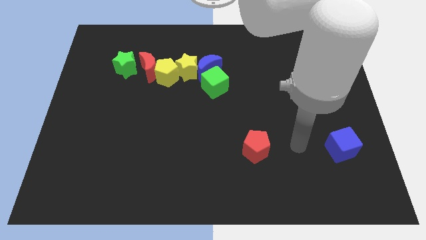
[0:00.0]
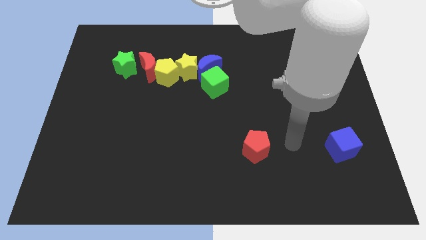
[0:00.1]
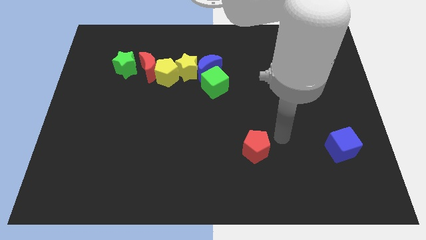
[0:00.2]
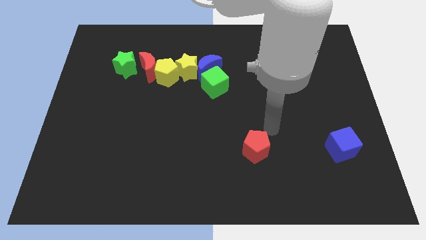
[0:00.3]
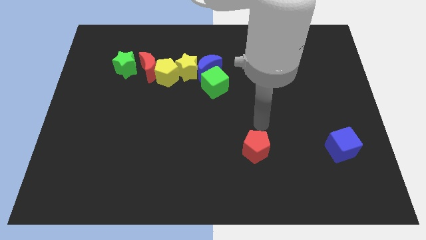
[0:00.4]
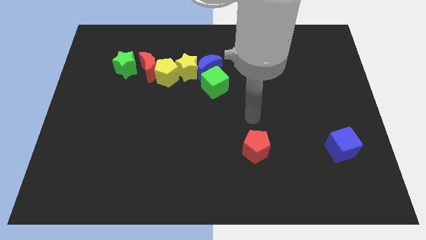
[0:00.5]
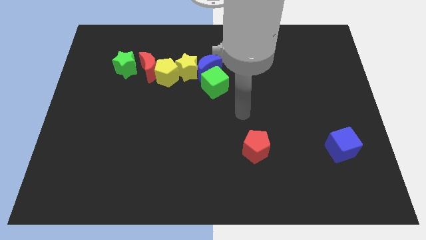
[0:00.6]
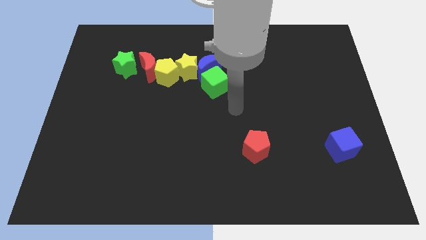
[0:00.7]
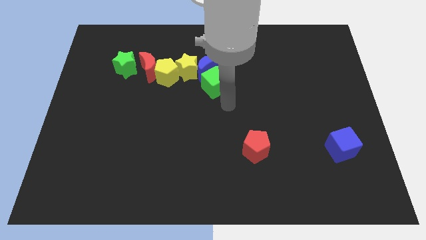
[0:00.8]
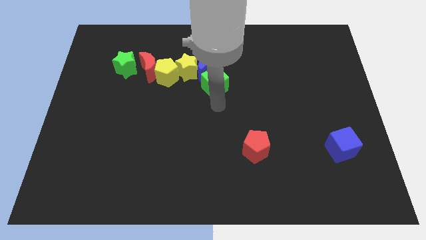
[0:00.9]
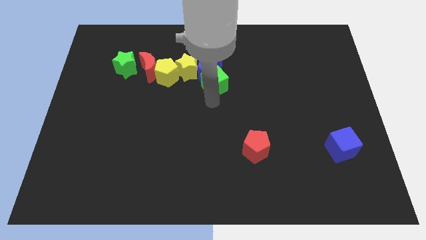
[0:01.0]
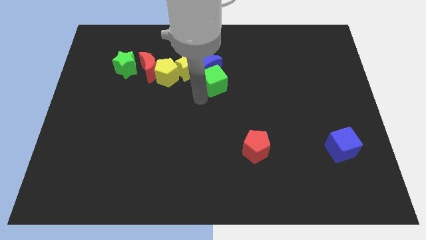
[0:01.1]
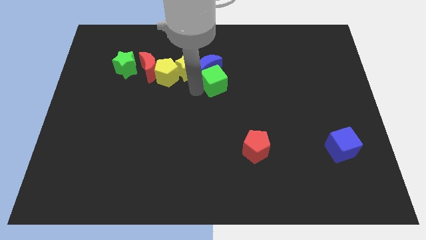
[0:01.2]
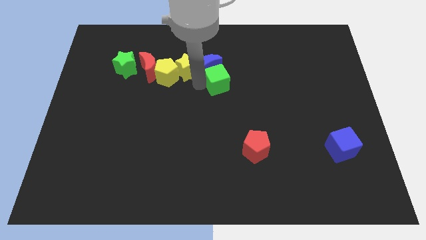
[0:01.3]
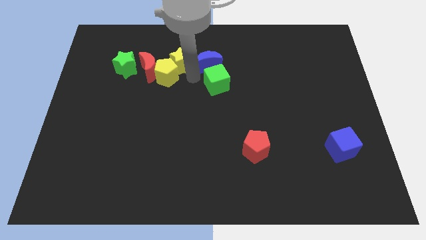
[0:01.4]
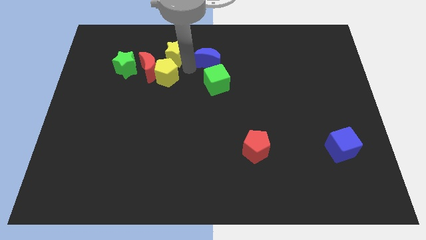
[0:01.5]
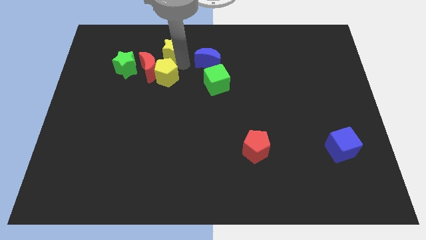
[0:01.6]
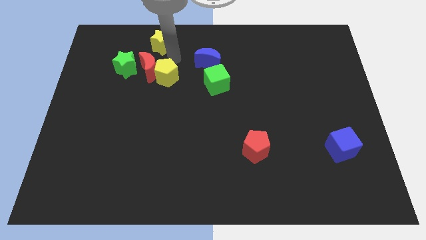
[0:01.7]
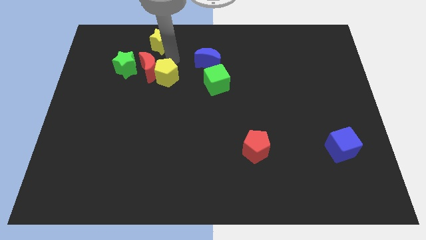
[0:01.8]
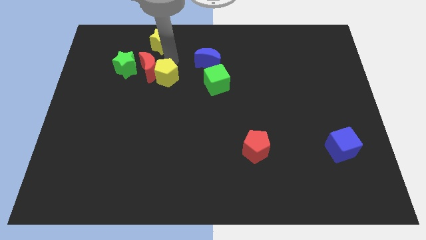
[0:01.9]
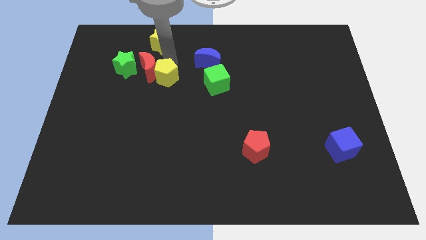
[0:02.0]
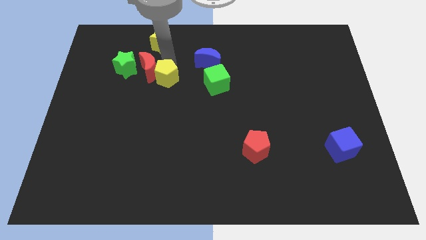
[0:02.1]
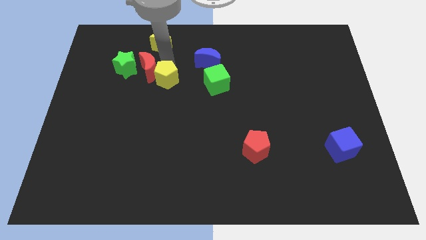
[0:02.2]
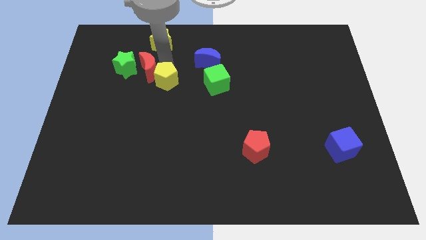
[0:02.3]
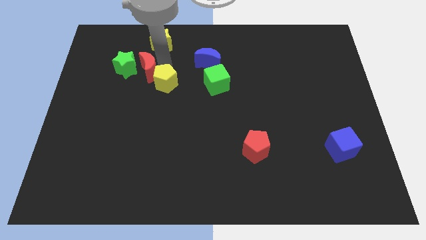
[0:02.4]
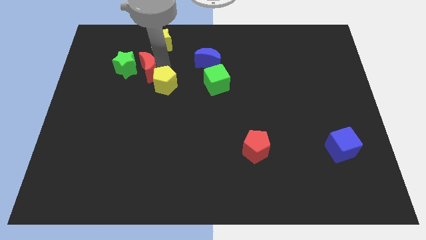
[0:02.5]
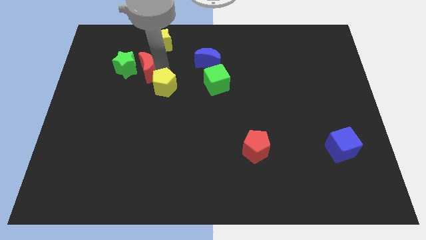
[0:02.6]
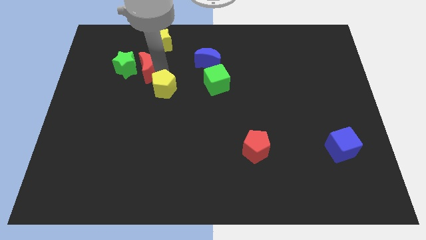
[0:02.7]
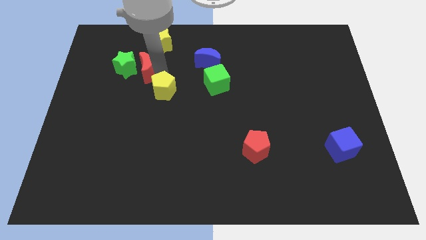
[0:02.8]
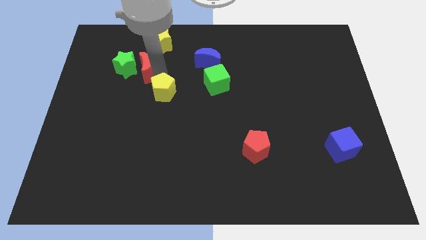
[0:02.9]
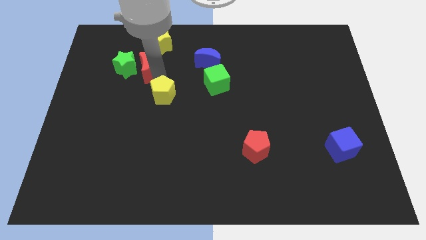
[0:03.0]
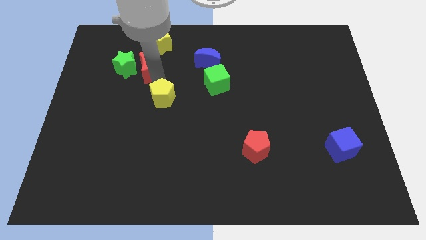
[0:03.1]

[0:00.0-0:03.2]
move the yellow pentagon downwards a little

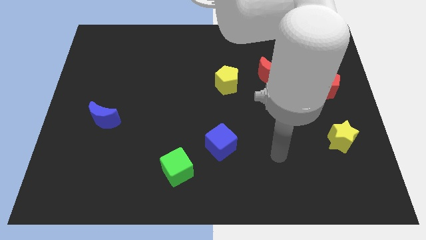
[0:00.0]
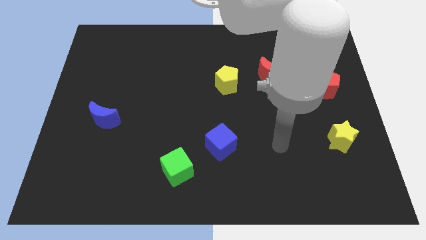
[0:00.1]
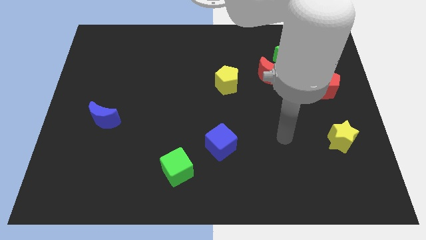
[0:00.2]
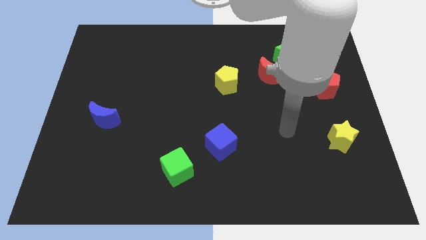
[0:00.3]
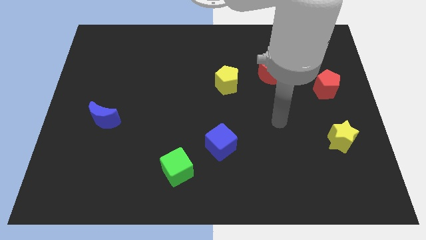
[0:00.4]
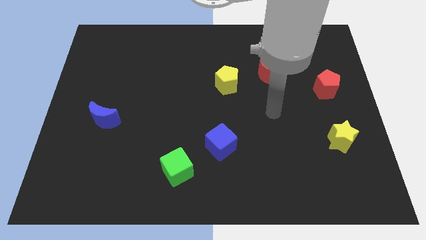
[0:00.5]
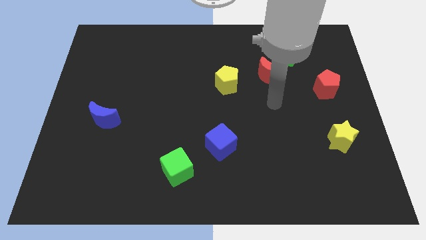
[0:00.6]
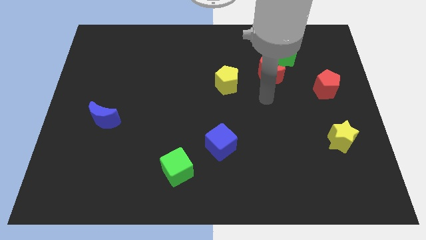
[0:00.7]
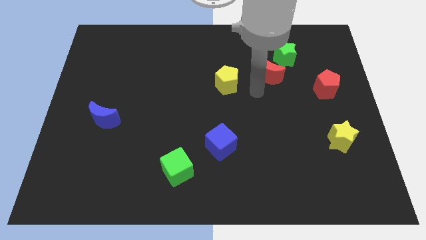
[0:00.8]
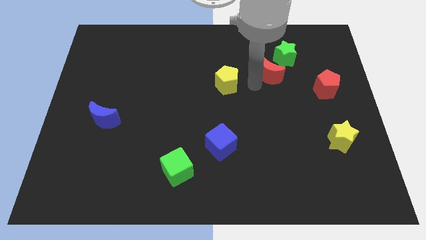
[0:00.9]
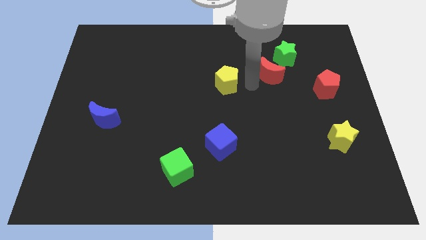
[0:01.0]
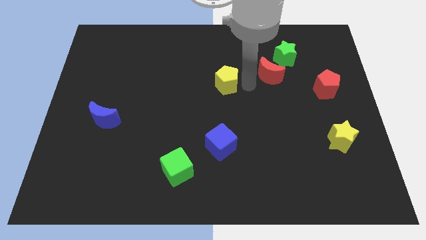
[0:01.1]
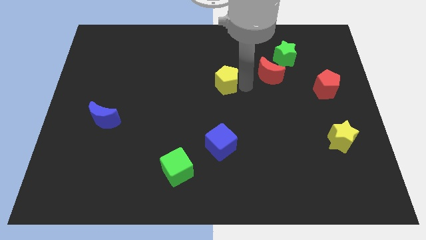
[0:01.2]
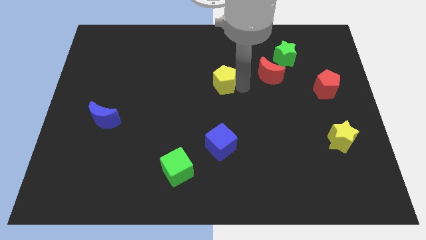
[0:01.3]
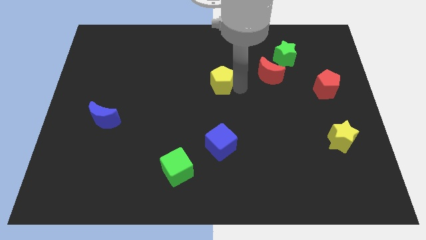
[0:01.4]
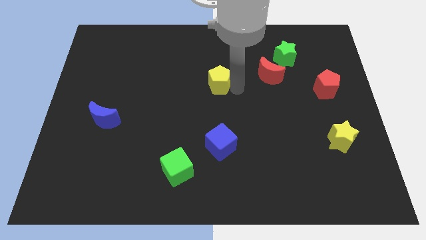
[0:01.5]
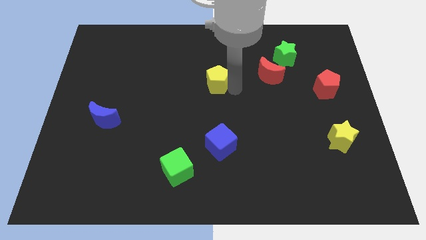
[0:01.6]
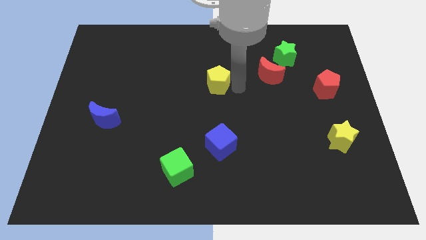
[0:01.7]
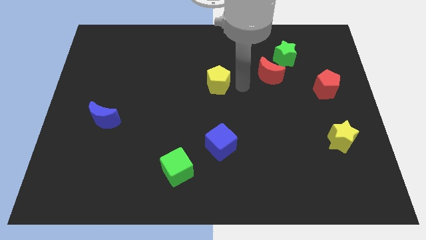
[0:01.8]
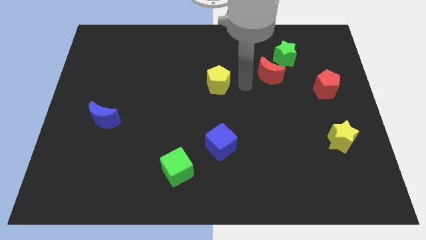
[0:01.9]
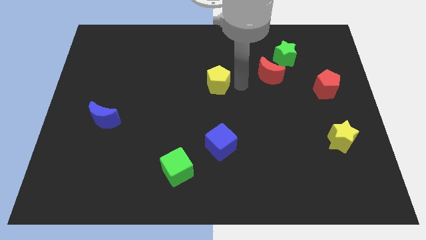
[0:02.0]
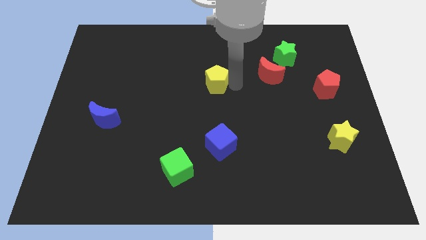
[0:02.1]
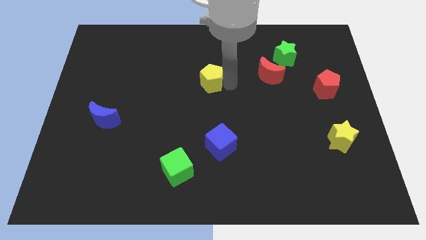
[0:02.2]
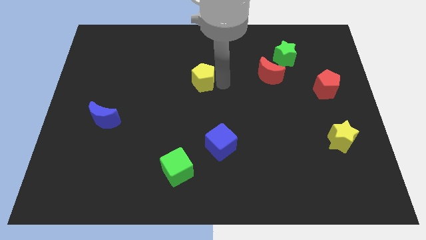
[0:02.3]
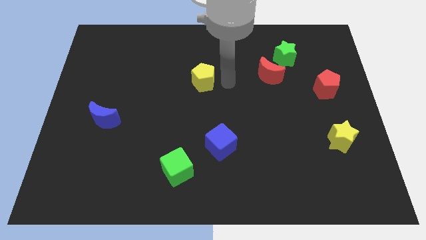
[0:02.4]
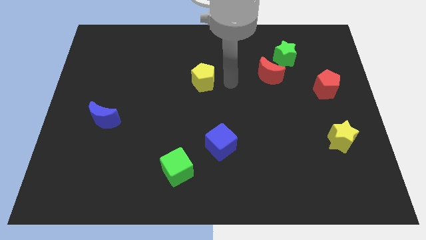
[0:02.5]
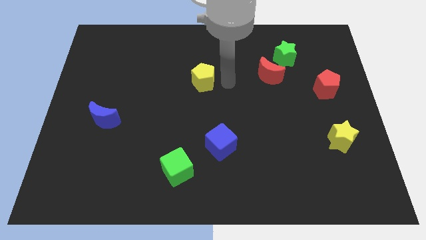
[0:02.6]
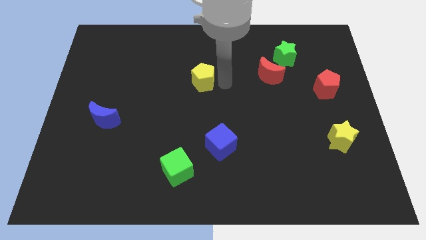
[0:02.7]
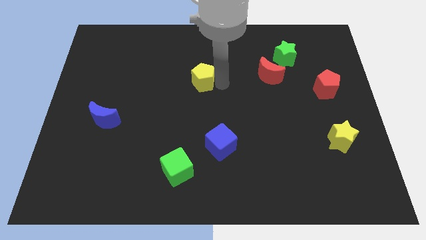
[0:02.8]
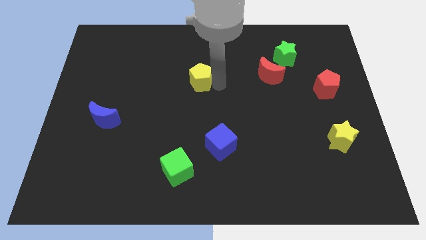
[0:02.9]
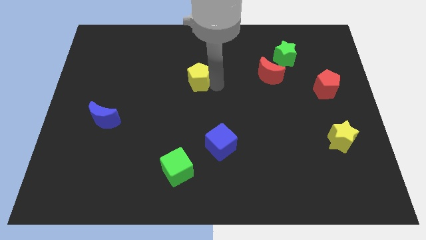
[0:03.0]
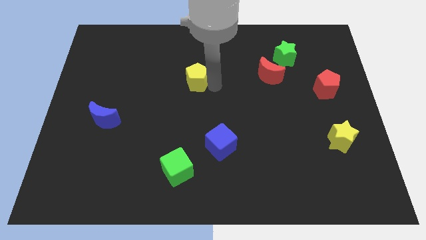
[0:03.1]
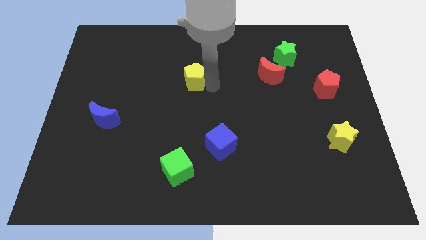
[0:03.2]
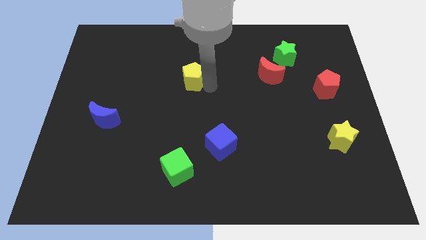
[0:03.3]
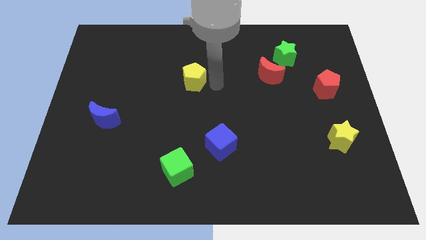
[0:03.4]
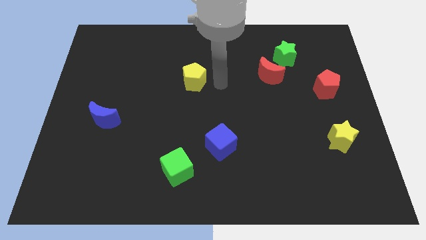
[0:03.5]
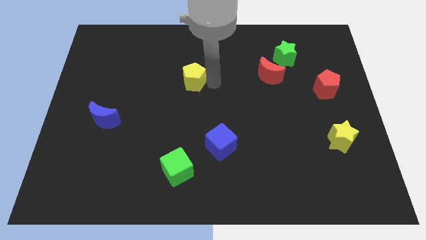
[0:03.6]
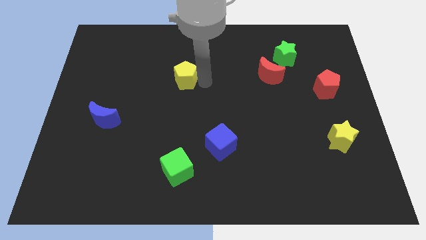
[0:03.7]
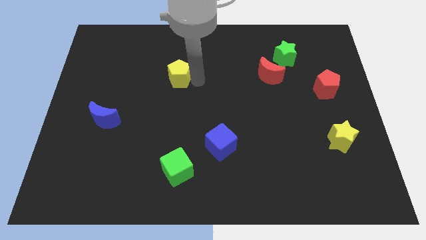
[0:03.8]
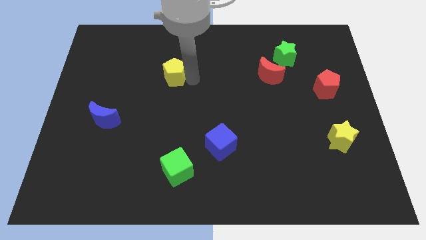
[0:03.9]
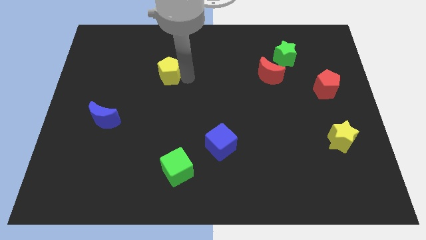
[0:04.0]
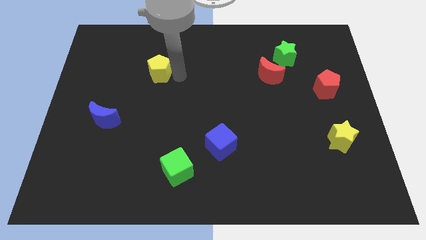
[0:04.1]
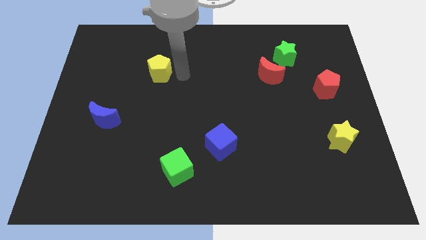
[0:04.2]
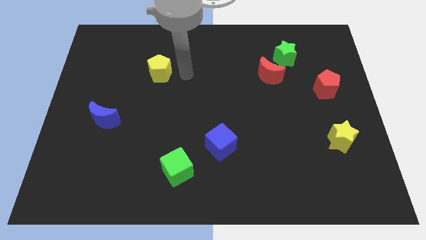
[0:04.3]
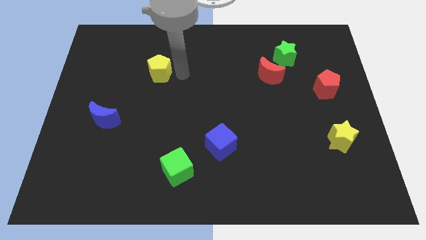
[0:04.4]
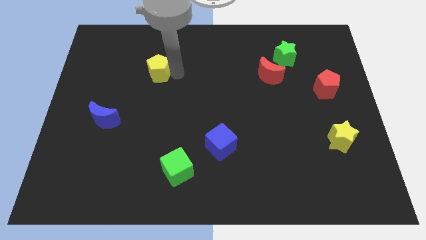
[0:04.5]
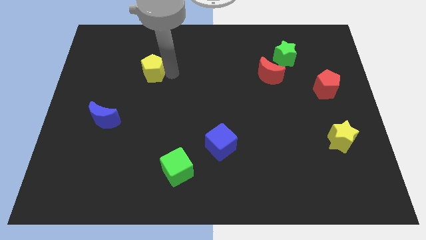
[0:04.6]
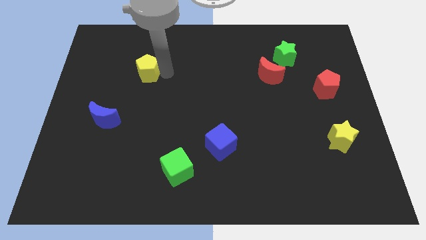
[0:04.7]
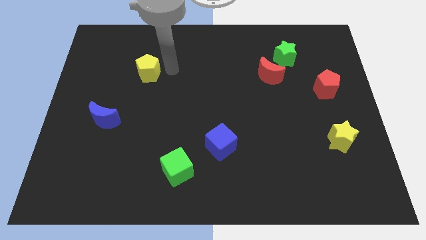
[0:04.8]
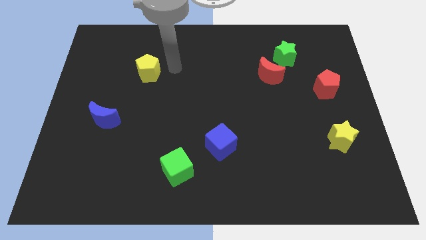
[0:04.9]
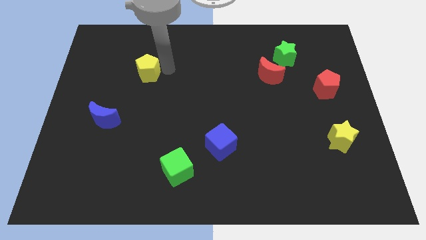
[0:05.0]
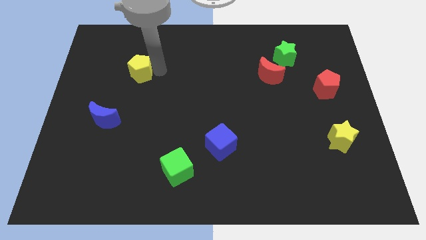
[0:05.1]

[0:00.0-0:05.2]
slide the yellow pentagon left
